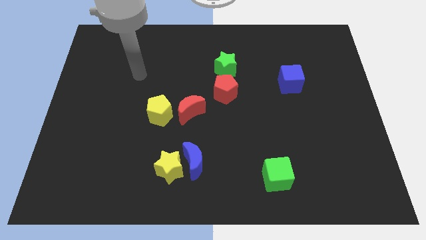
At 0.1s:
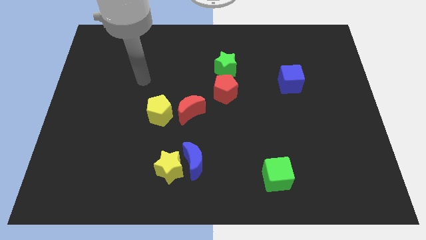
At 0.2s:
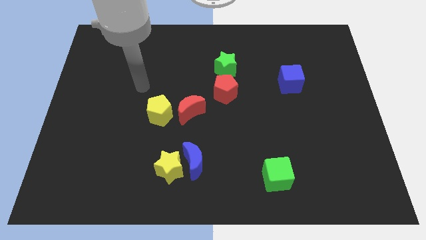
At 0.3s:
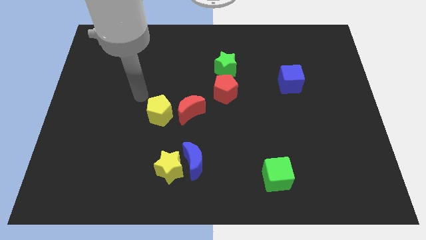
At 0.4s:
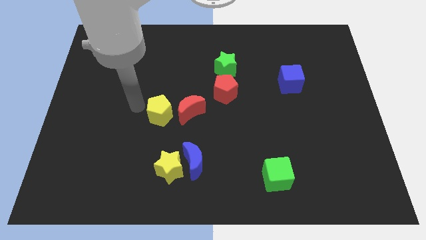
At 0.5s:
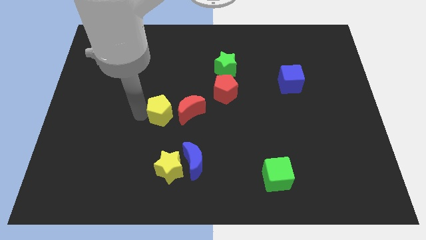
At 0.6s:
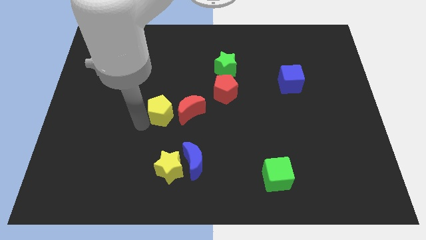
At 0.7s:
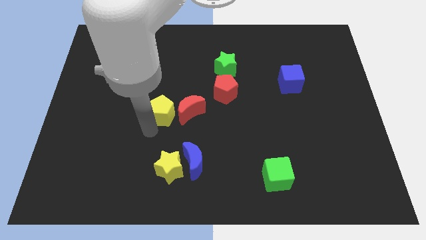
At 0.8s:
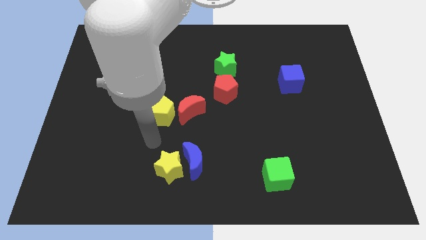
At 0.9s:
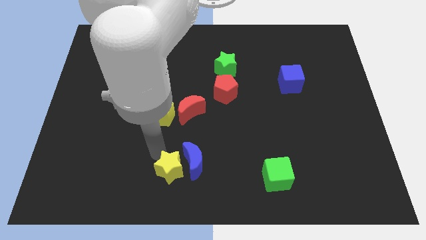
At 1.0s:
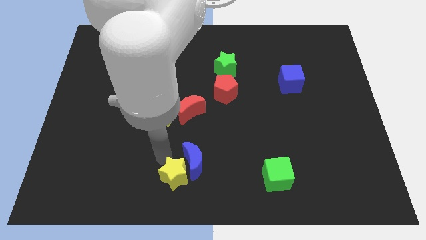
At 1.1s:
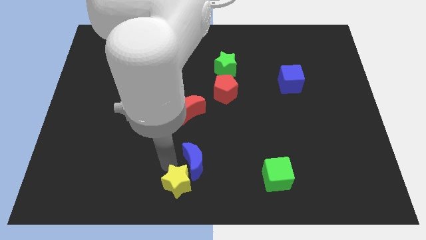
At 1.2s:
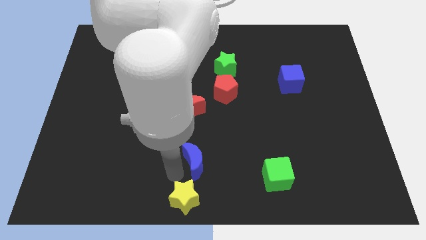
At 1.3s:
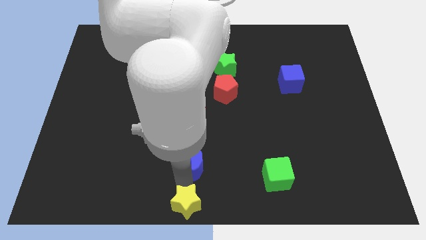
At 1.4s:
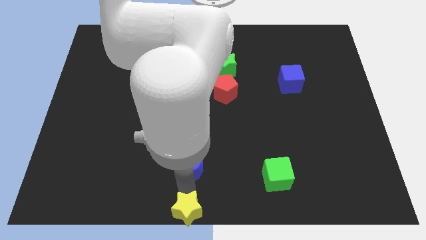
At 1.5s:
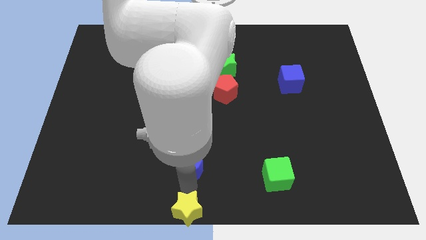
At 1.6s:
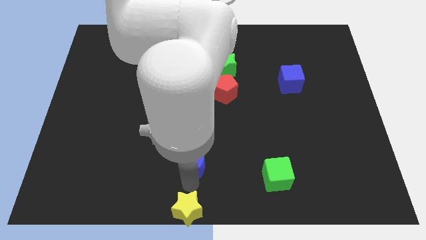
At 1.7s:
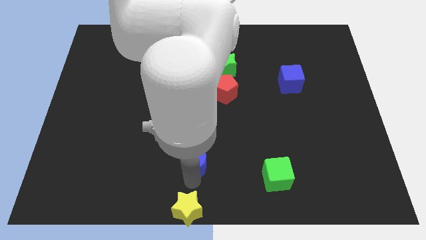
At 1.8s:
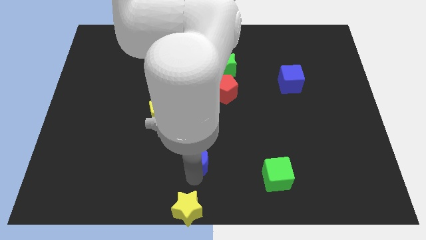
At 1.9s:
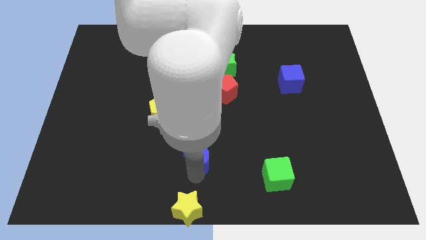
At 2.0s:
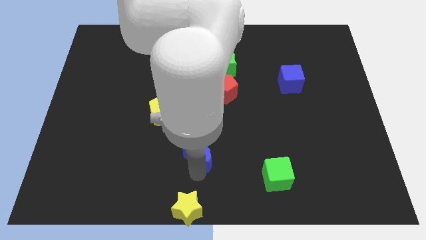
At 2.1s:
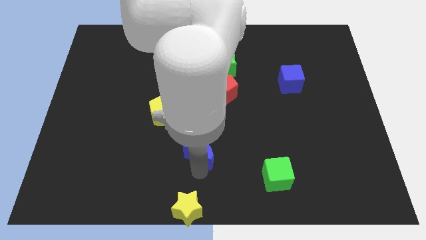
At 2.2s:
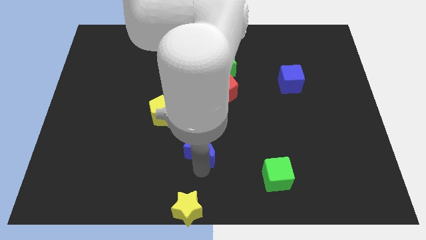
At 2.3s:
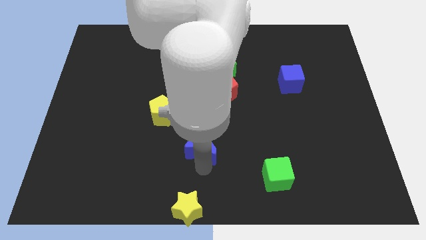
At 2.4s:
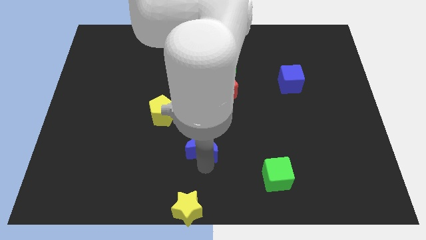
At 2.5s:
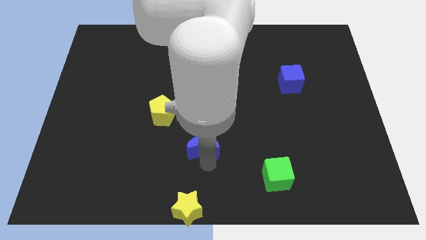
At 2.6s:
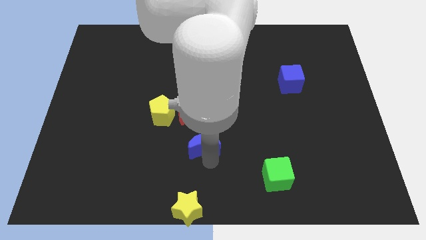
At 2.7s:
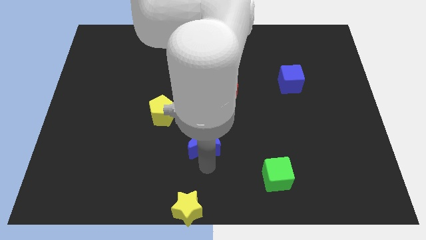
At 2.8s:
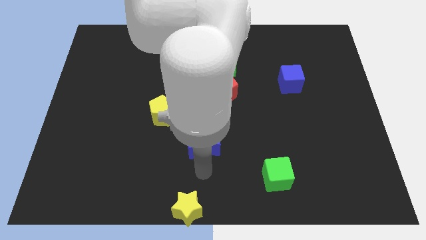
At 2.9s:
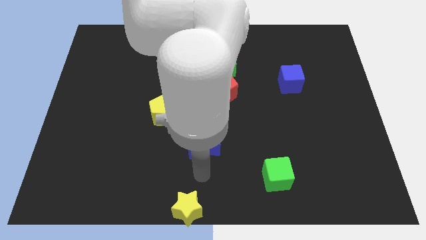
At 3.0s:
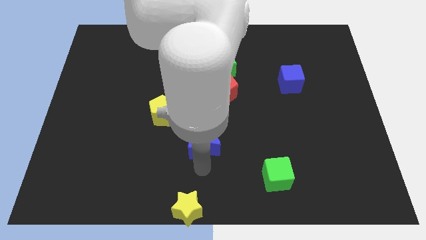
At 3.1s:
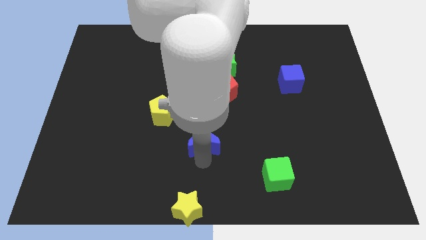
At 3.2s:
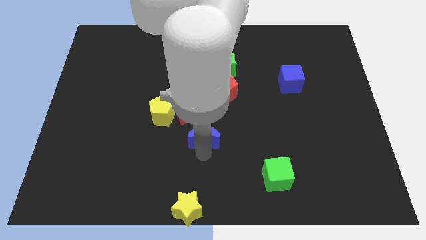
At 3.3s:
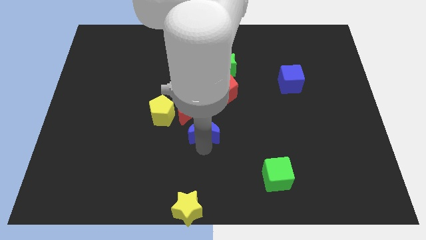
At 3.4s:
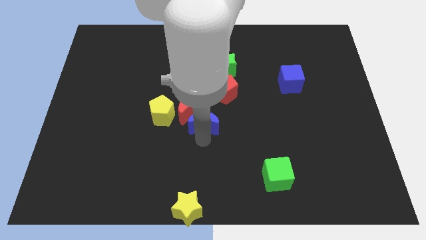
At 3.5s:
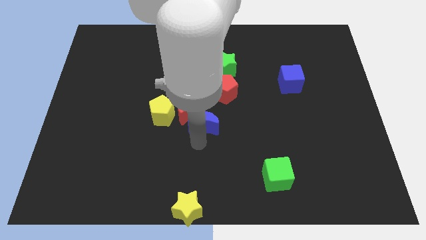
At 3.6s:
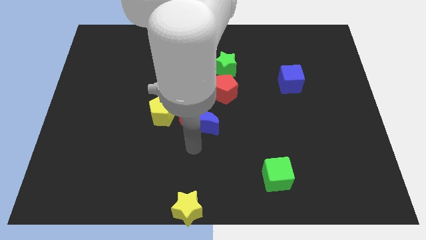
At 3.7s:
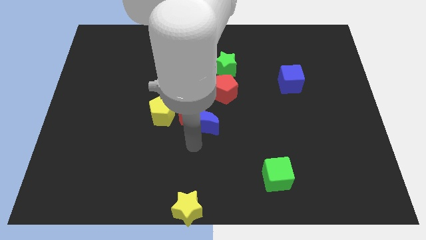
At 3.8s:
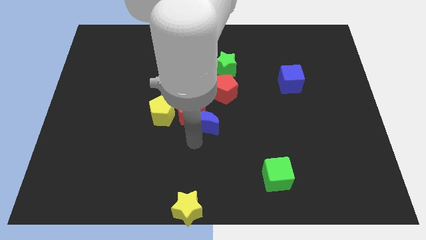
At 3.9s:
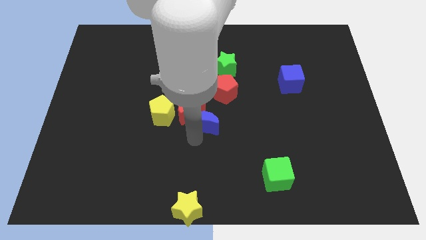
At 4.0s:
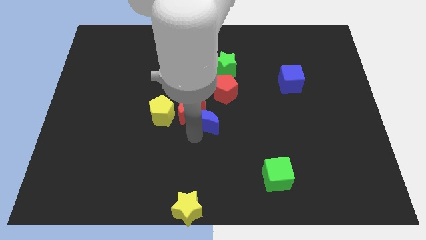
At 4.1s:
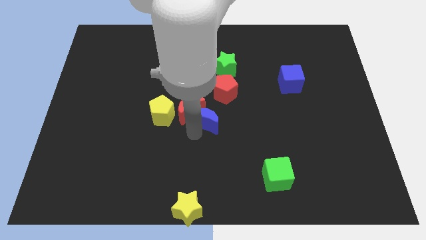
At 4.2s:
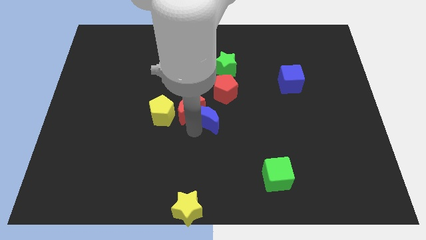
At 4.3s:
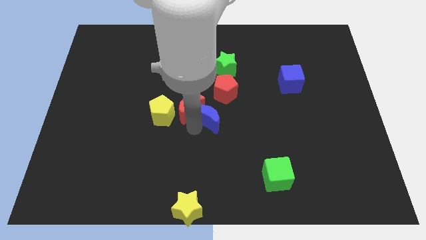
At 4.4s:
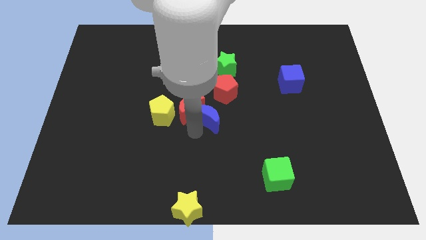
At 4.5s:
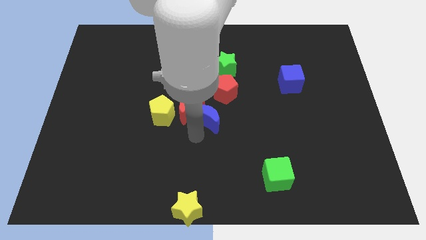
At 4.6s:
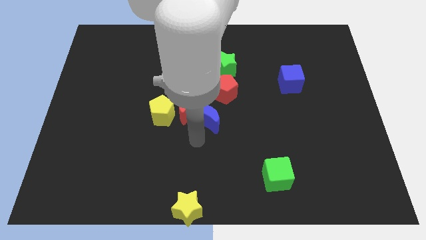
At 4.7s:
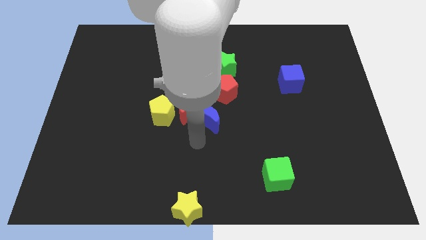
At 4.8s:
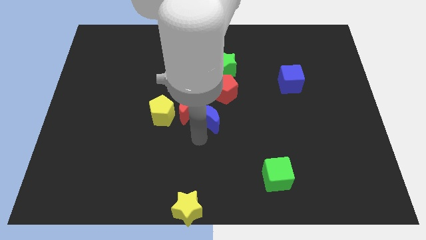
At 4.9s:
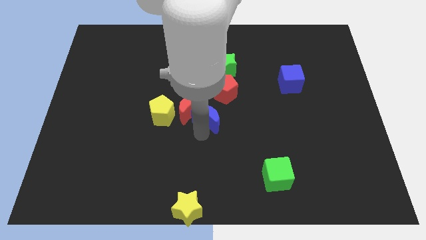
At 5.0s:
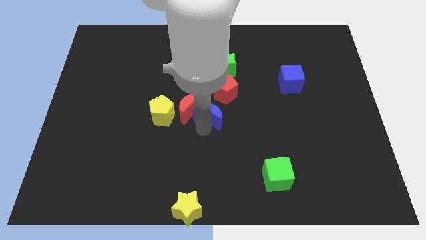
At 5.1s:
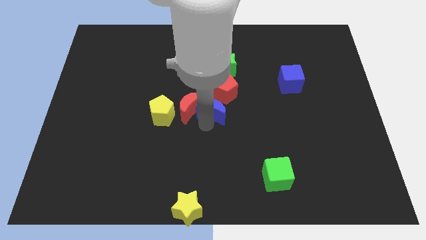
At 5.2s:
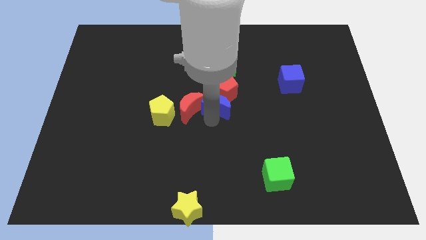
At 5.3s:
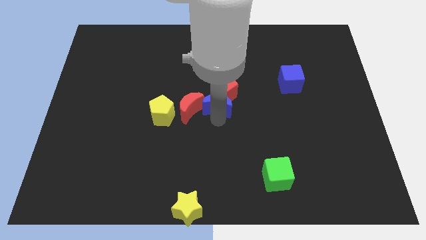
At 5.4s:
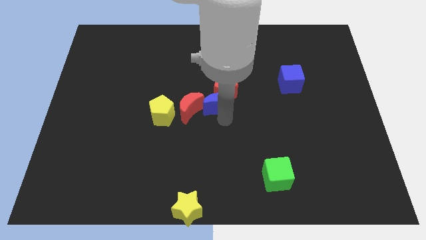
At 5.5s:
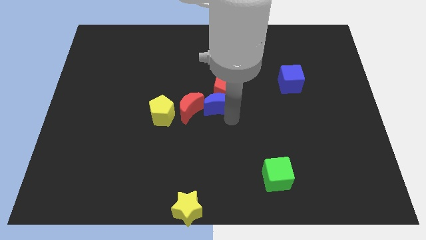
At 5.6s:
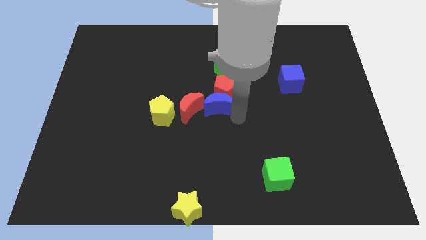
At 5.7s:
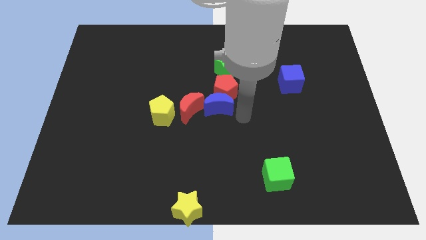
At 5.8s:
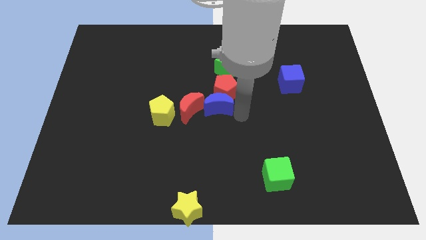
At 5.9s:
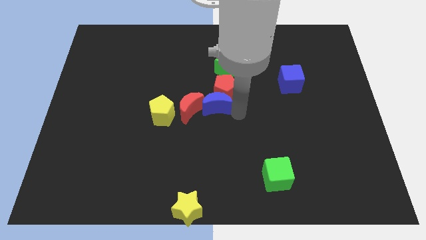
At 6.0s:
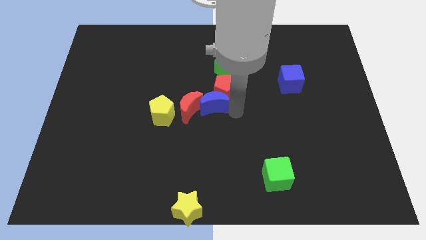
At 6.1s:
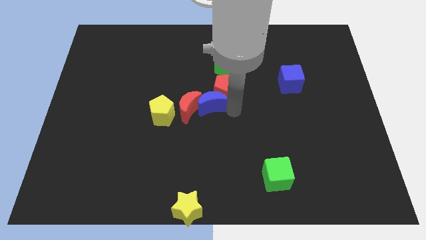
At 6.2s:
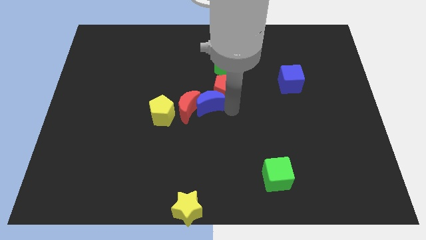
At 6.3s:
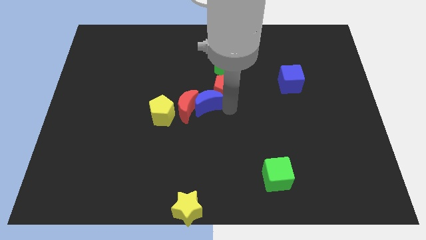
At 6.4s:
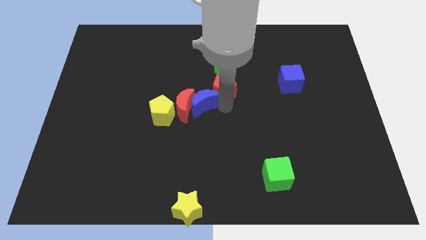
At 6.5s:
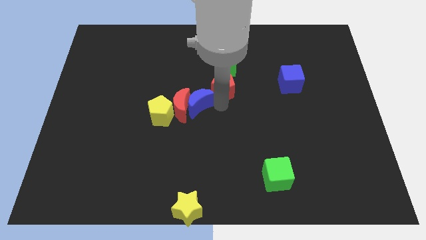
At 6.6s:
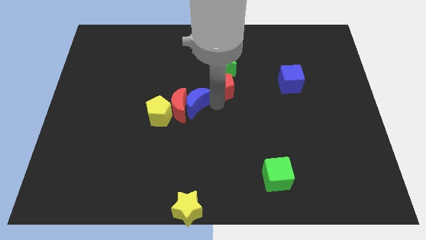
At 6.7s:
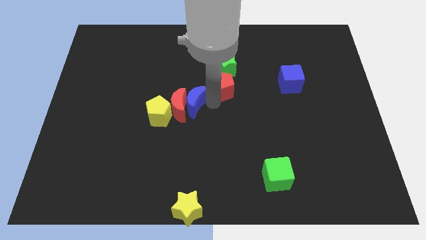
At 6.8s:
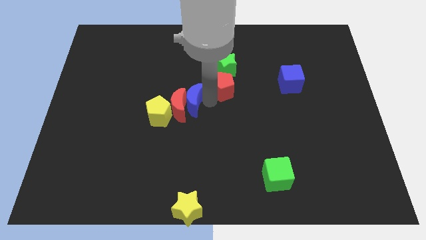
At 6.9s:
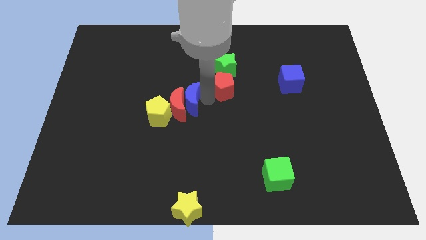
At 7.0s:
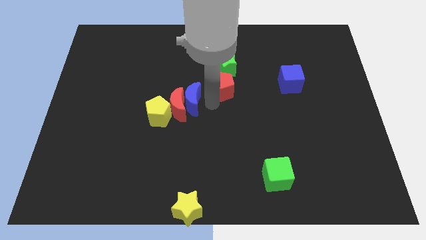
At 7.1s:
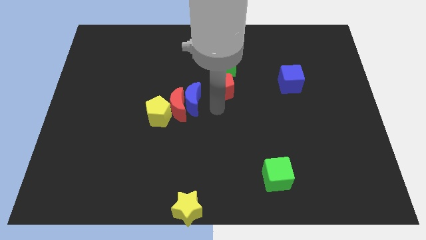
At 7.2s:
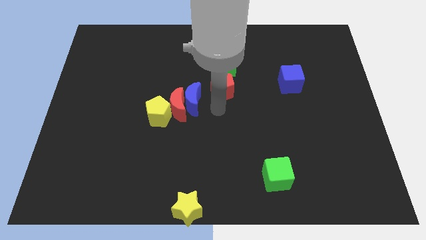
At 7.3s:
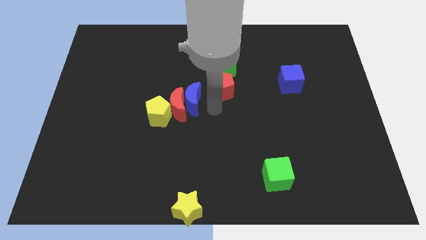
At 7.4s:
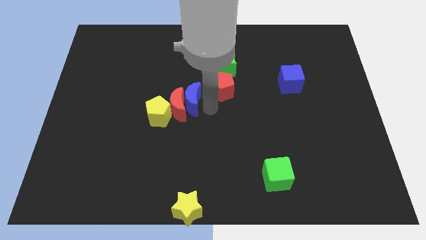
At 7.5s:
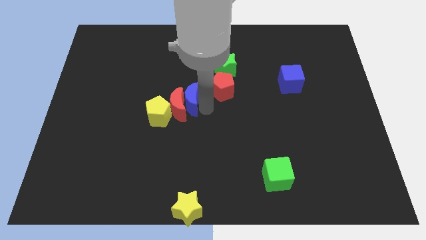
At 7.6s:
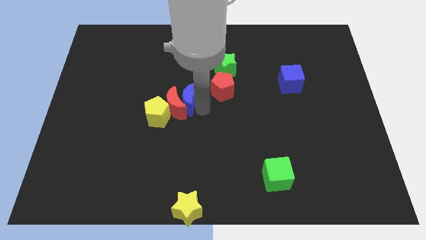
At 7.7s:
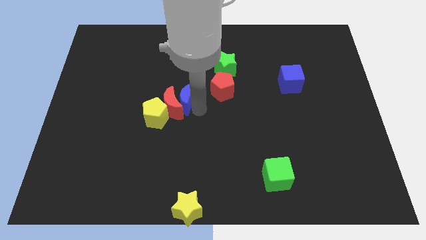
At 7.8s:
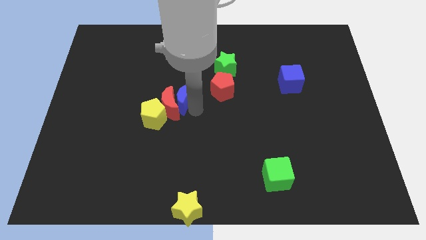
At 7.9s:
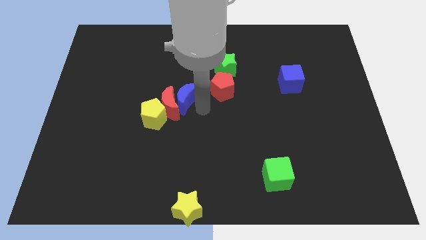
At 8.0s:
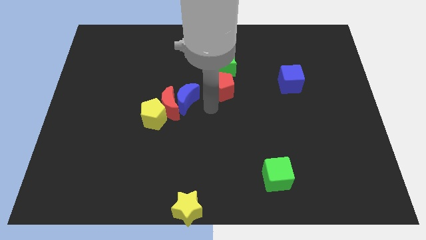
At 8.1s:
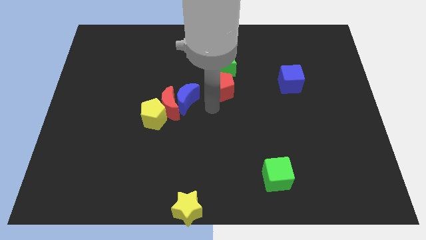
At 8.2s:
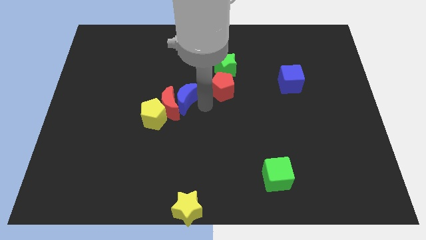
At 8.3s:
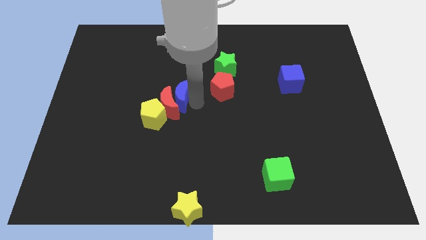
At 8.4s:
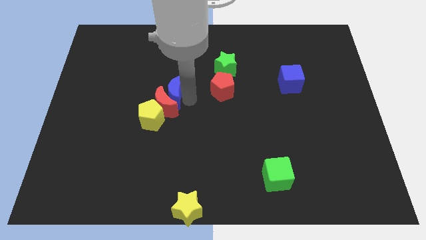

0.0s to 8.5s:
push the blue moon to the top left side of the red moon
